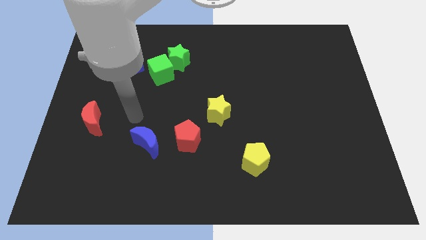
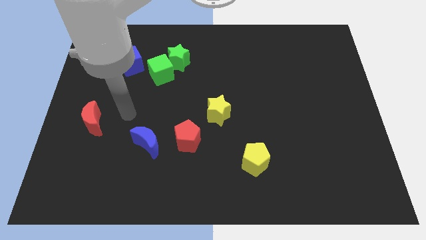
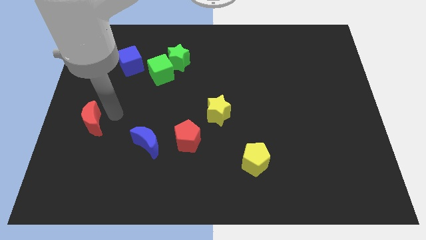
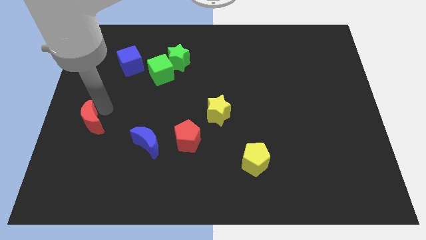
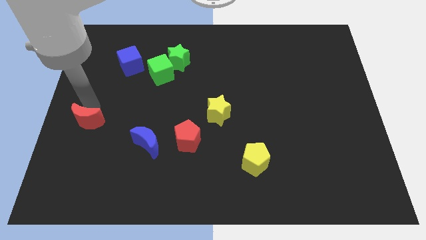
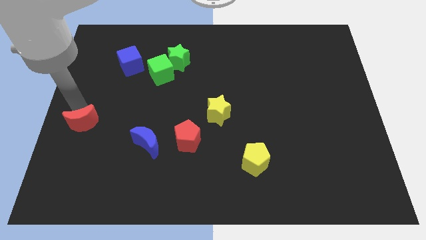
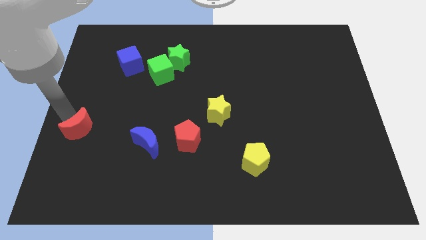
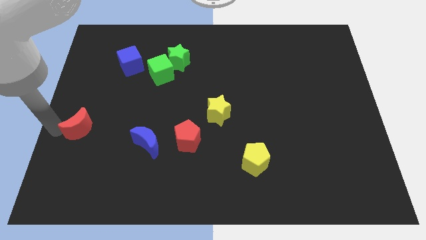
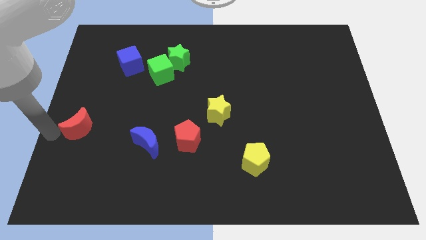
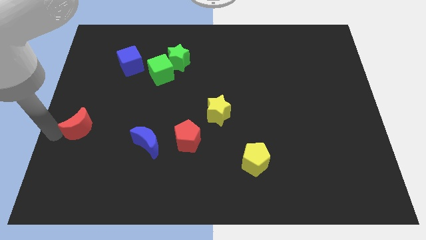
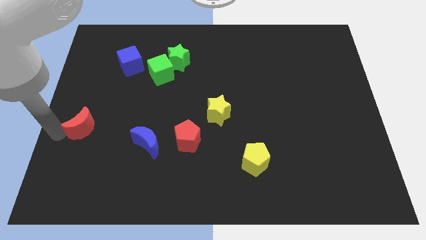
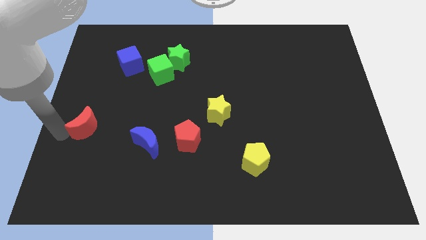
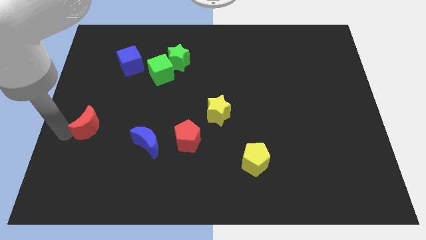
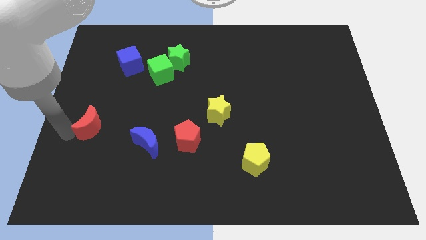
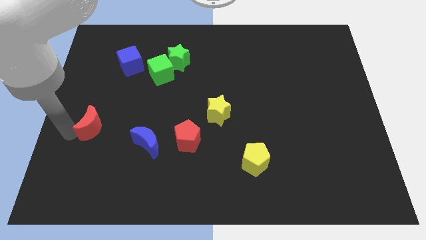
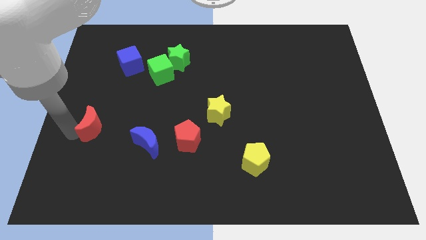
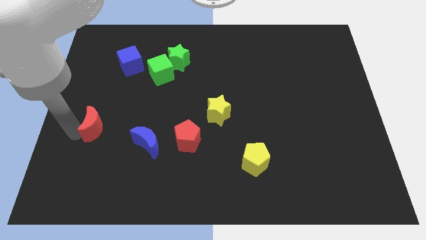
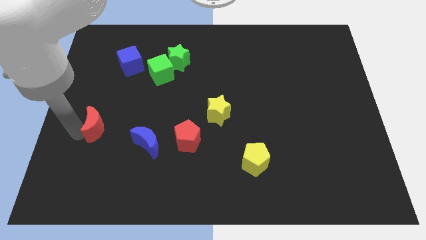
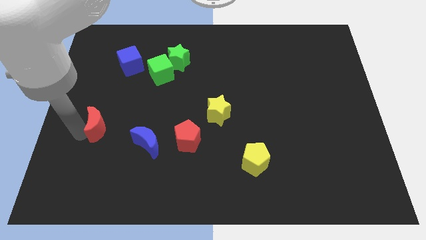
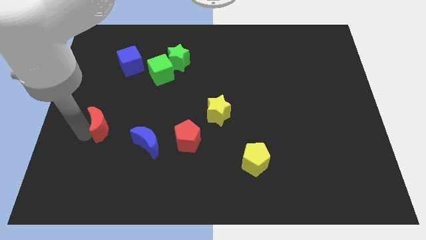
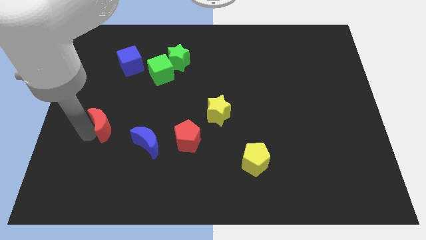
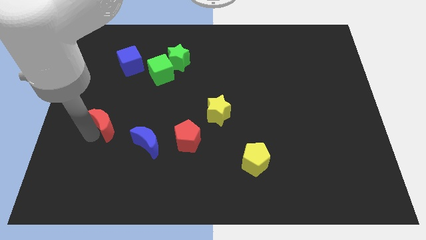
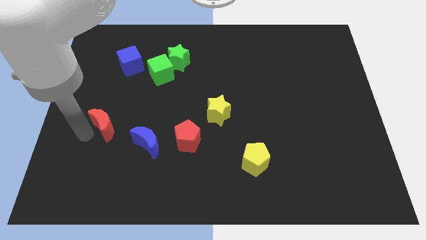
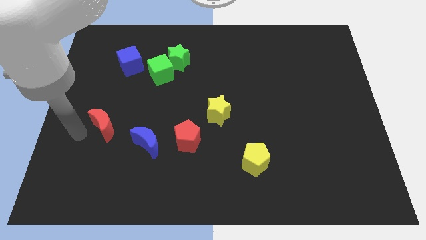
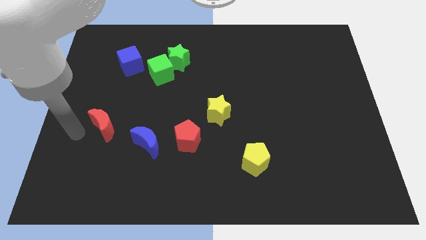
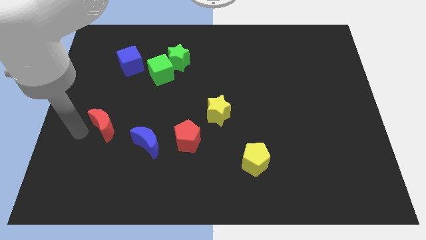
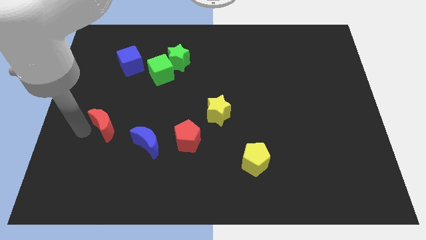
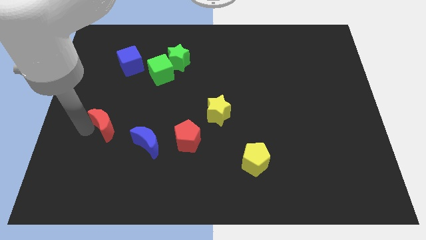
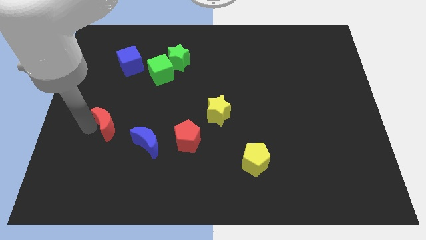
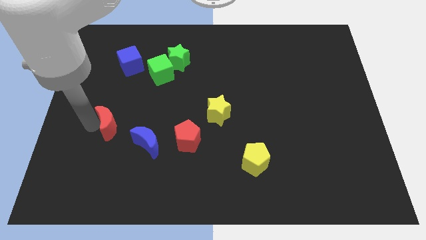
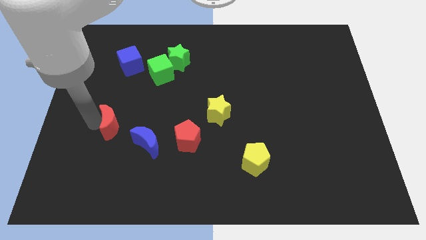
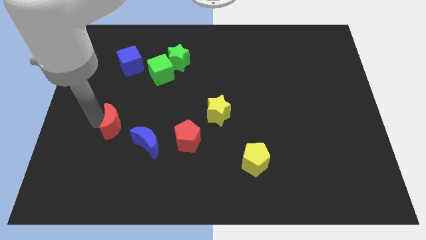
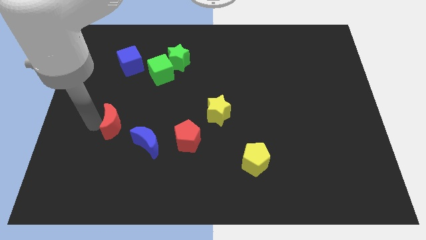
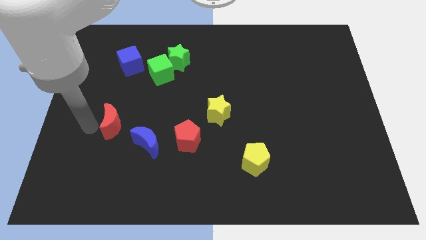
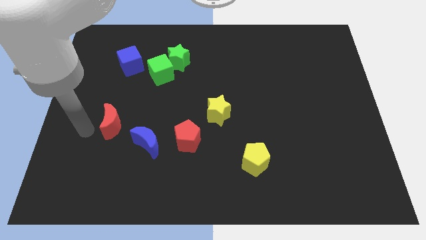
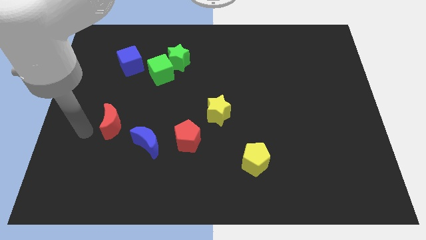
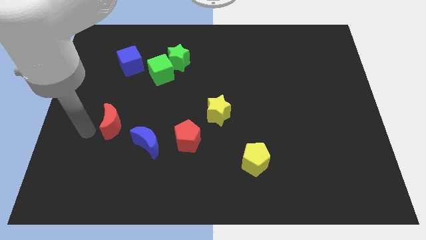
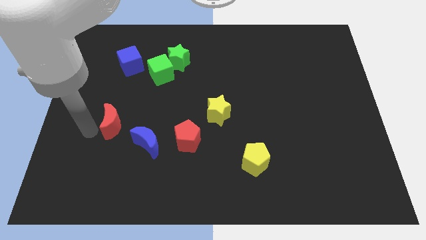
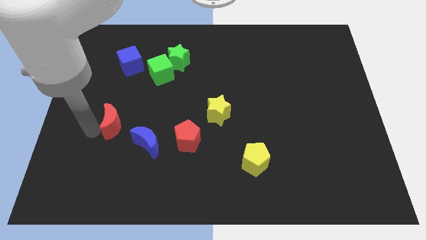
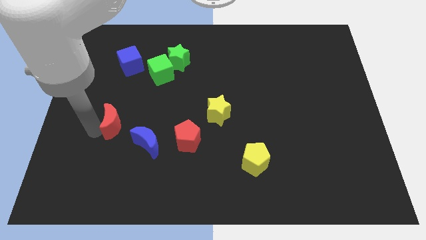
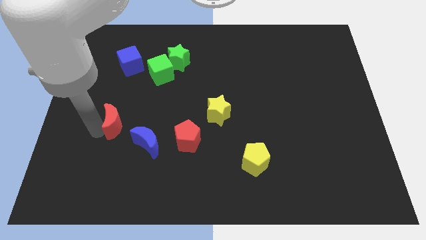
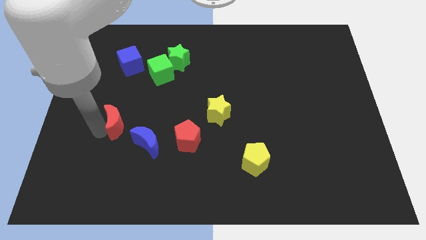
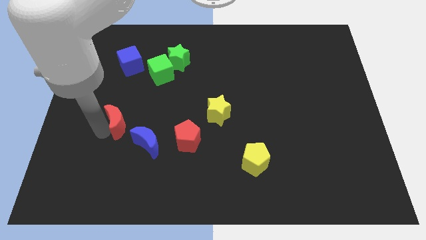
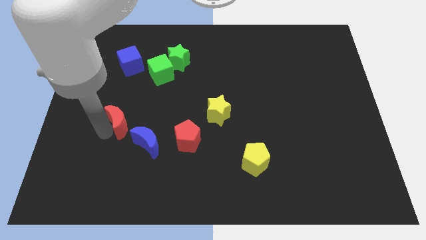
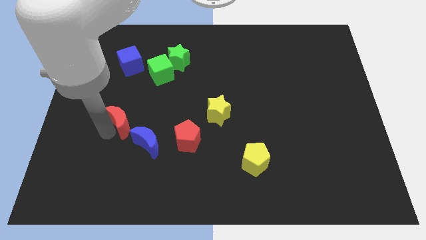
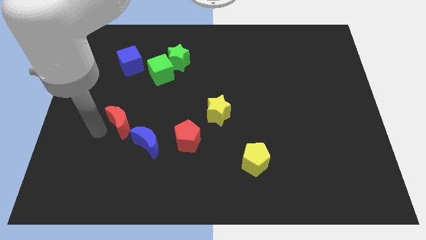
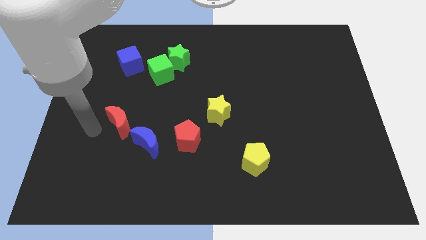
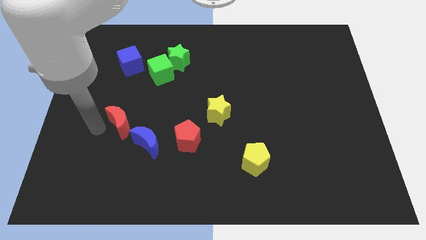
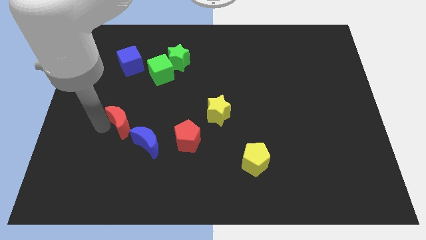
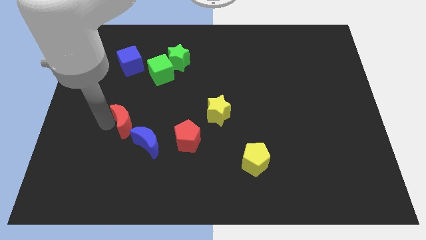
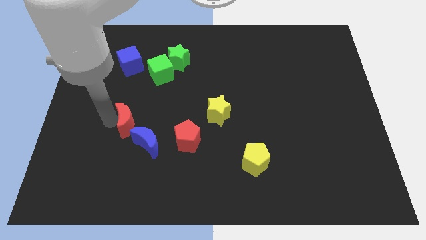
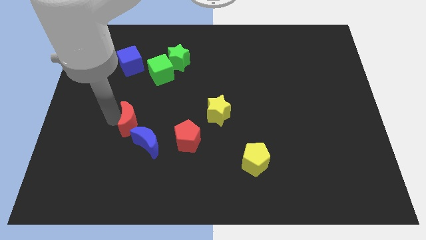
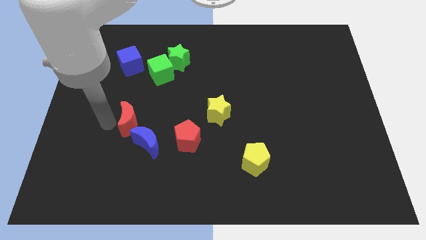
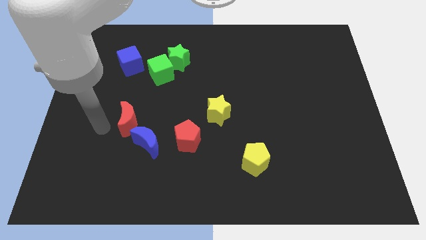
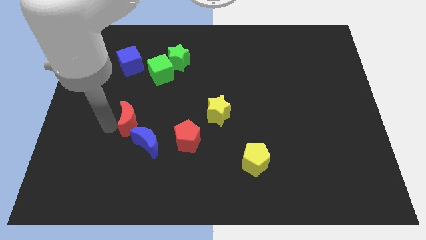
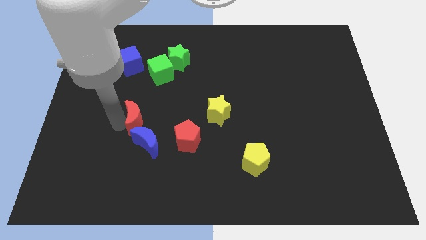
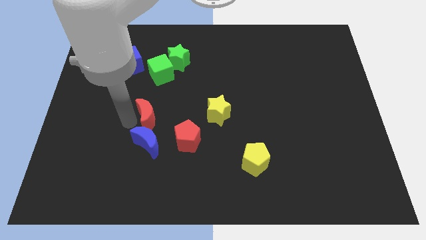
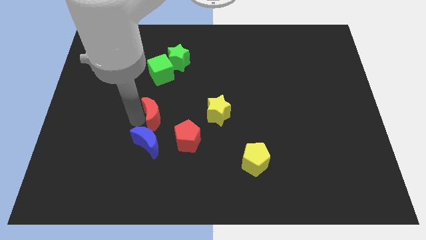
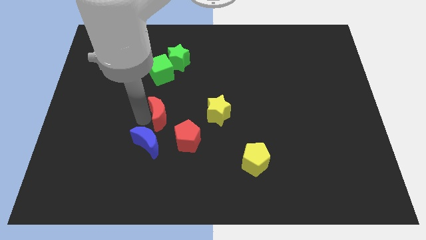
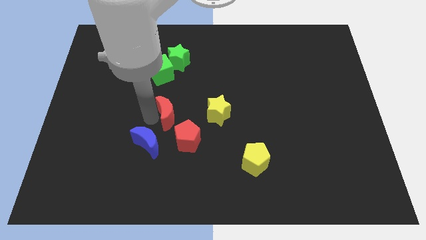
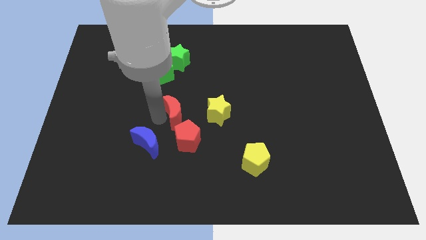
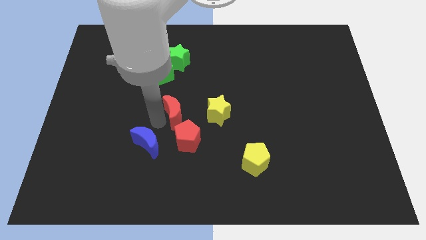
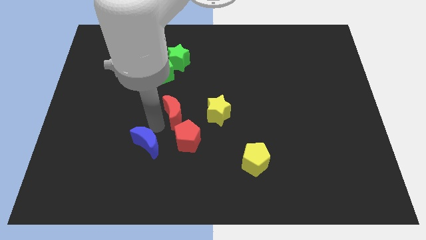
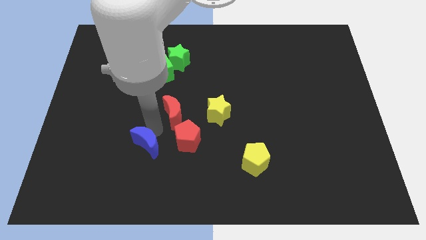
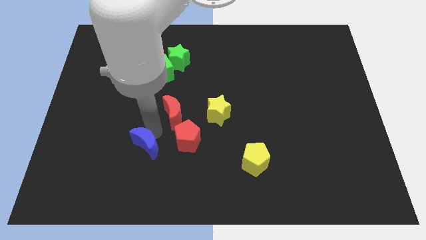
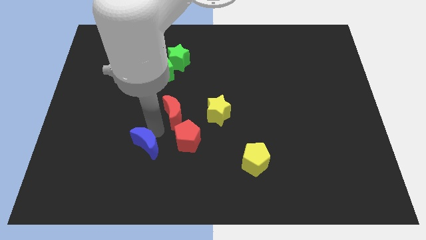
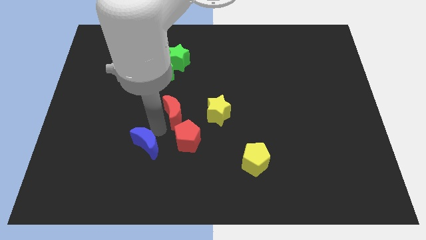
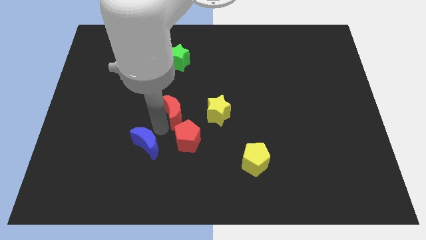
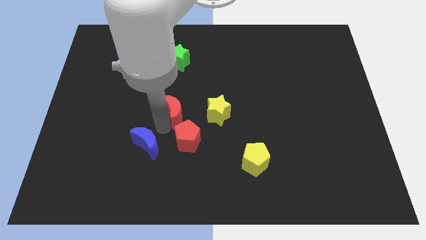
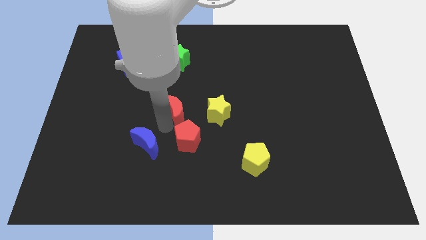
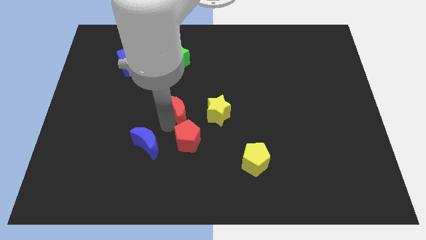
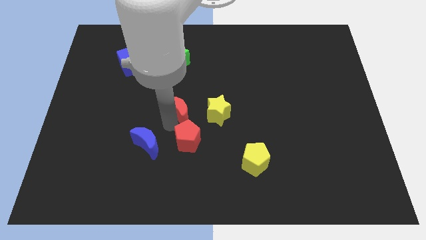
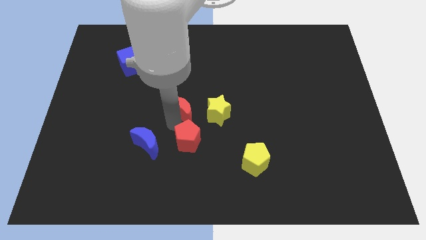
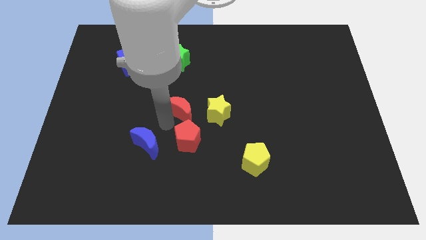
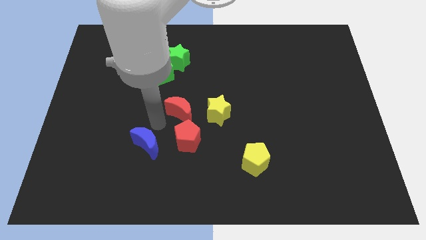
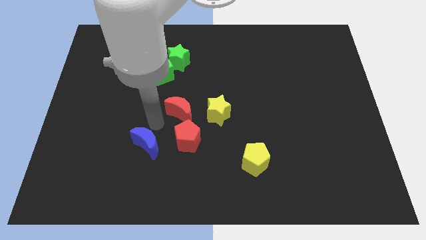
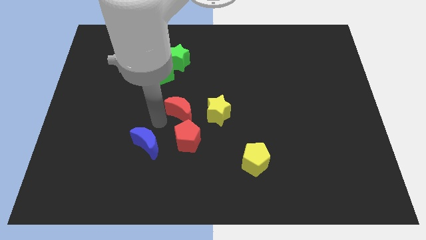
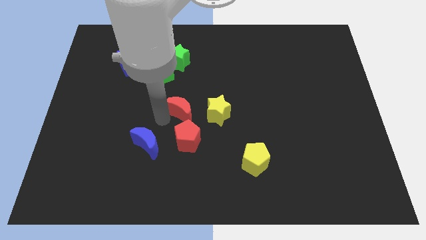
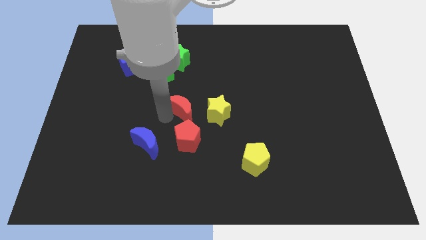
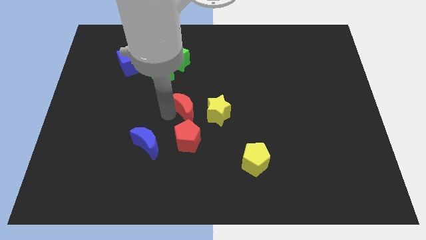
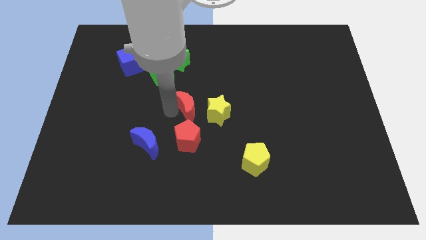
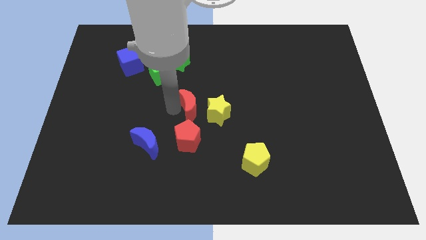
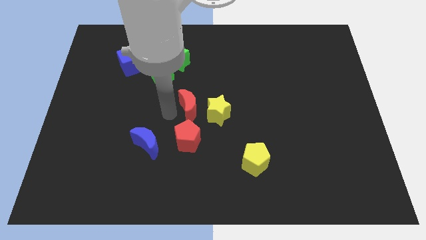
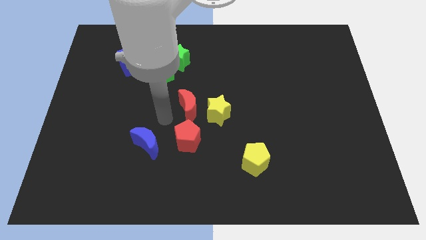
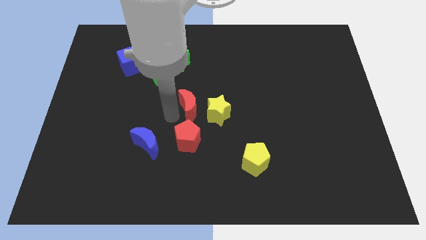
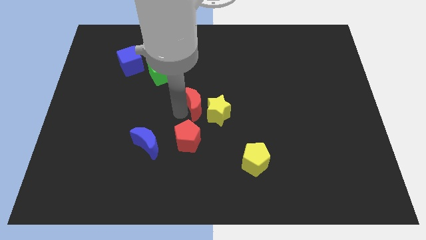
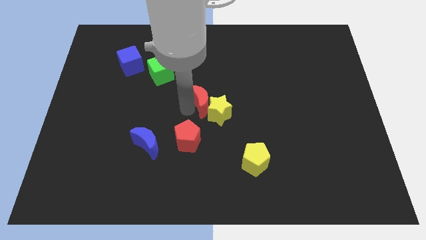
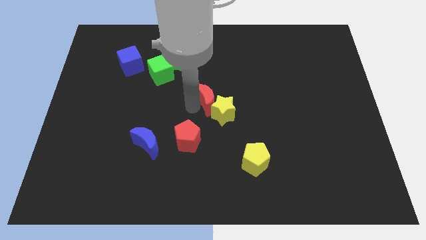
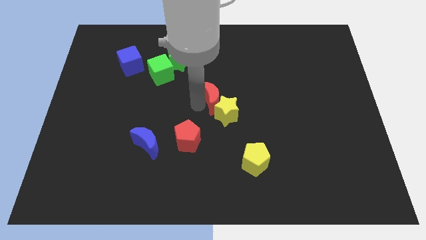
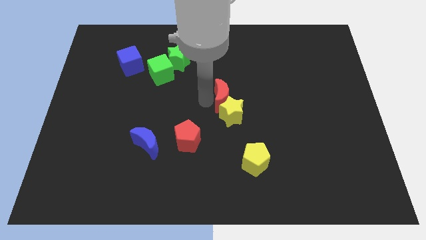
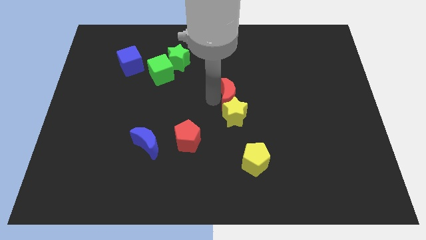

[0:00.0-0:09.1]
put the red moon to the top right side of the yellow star
